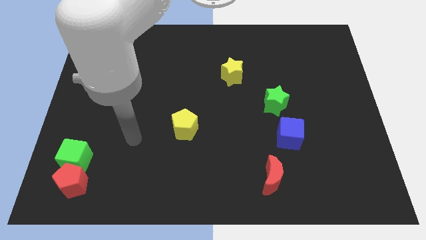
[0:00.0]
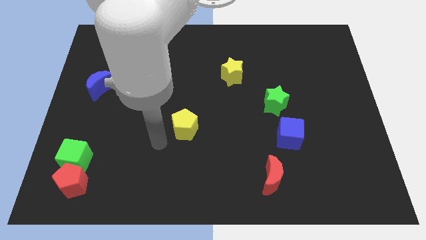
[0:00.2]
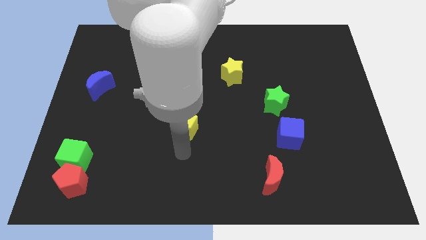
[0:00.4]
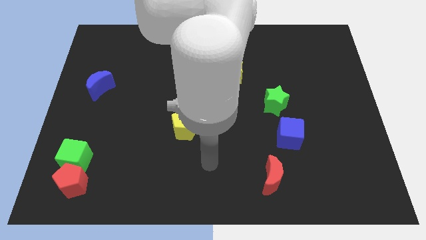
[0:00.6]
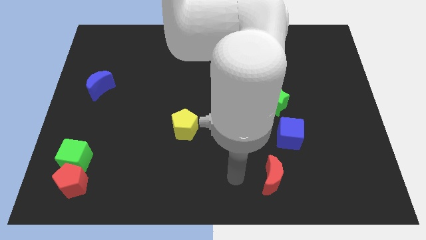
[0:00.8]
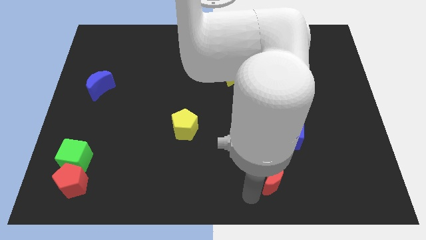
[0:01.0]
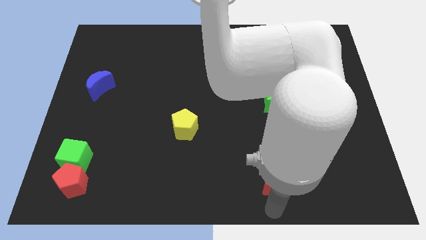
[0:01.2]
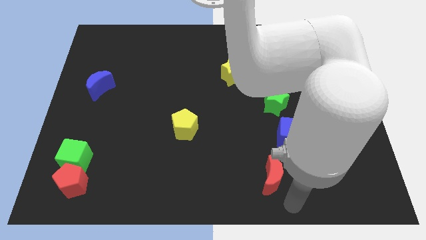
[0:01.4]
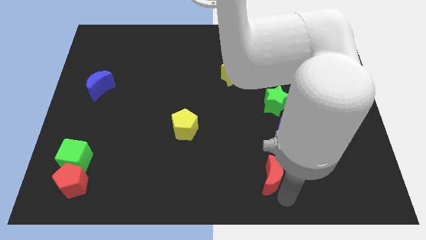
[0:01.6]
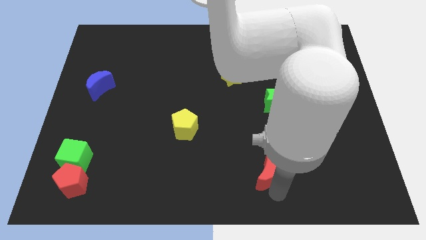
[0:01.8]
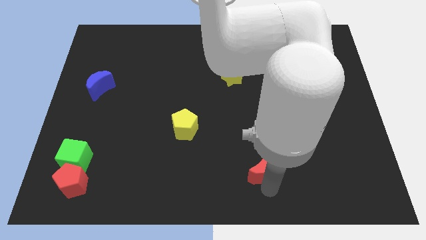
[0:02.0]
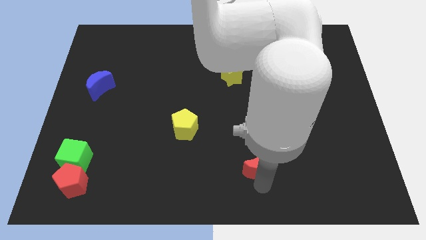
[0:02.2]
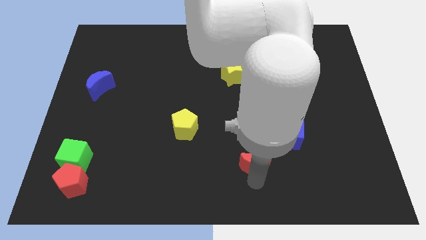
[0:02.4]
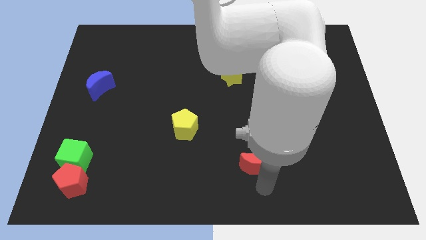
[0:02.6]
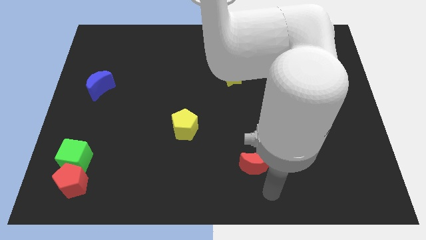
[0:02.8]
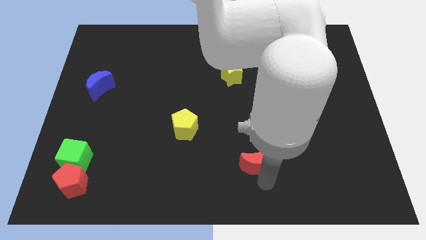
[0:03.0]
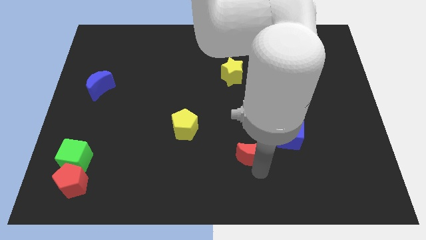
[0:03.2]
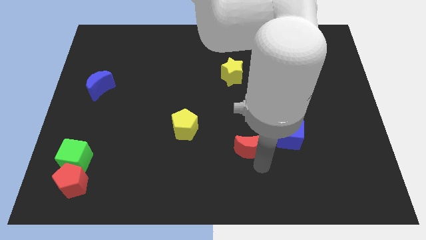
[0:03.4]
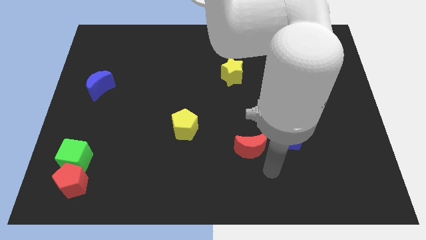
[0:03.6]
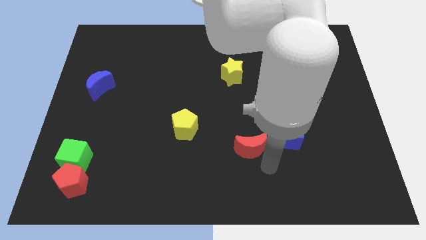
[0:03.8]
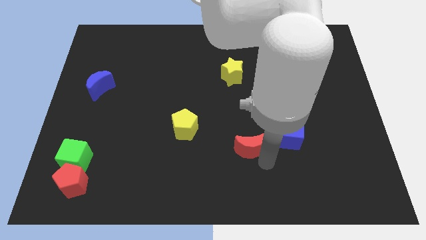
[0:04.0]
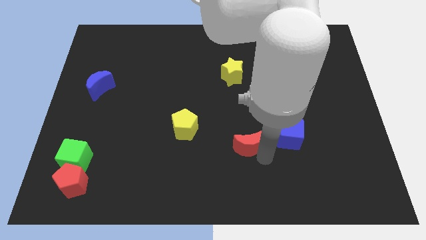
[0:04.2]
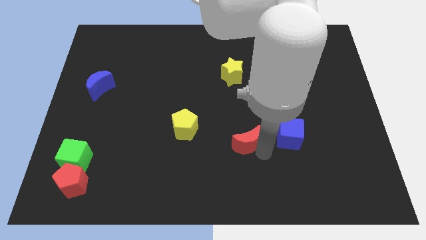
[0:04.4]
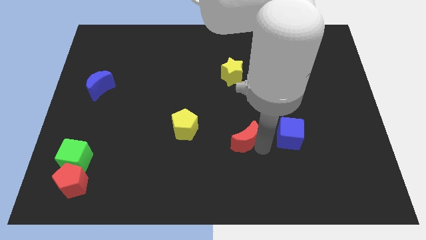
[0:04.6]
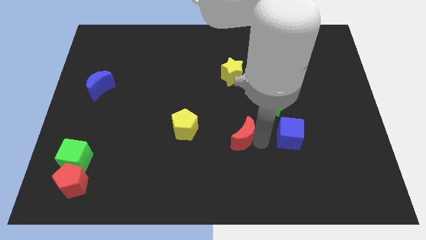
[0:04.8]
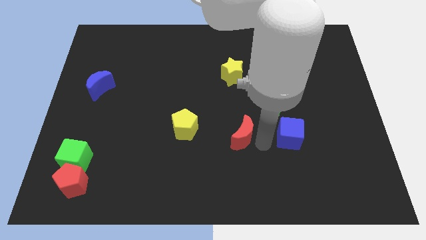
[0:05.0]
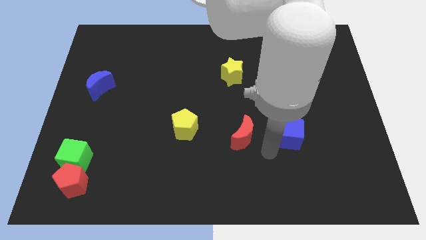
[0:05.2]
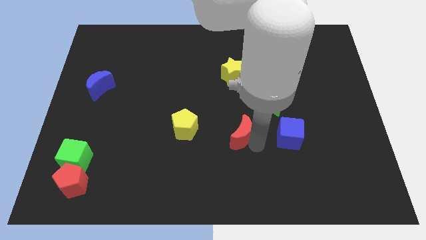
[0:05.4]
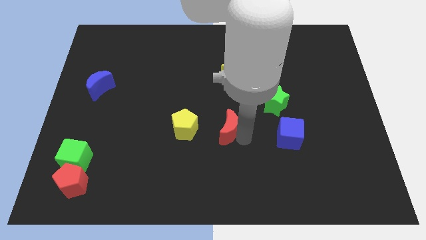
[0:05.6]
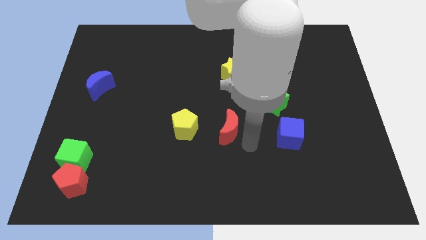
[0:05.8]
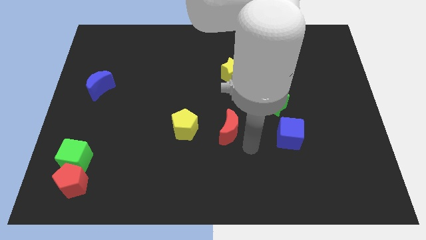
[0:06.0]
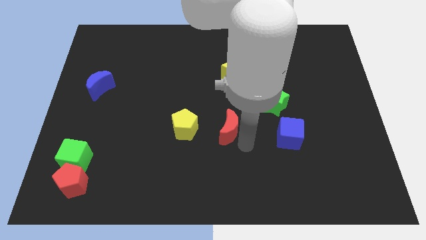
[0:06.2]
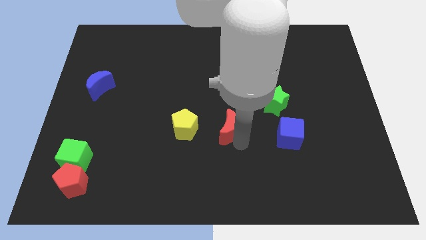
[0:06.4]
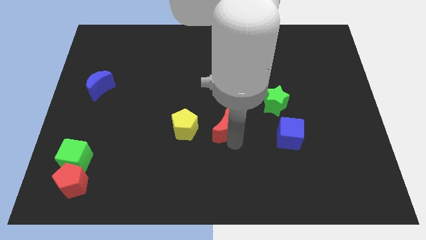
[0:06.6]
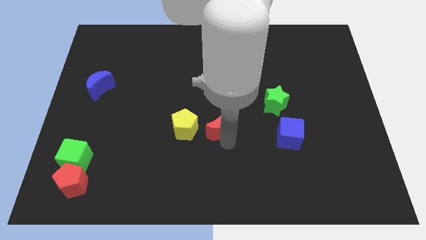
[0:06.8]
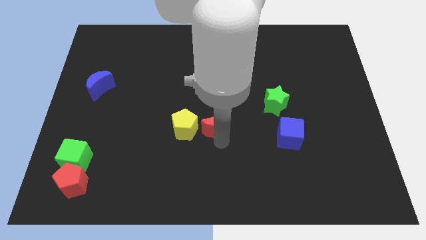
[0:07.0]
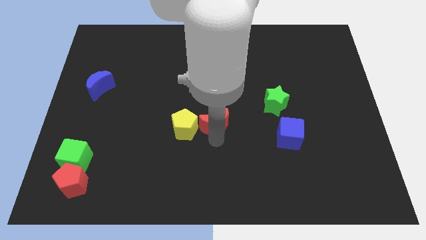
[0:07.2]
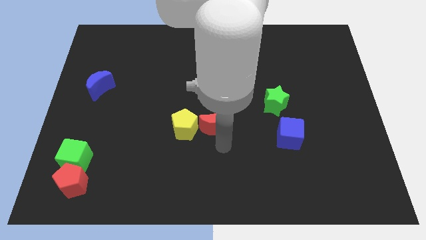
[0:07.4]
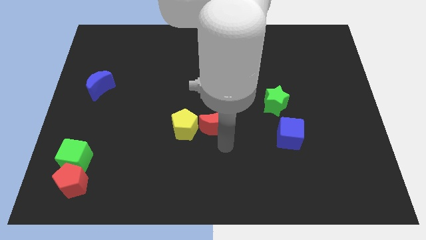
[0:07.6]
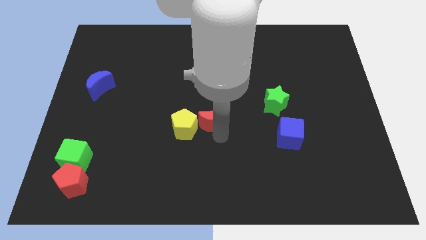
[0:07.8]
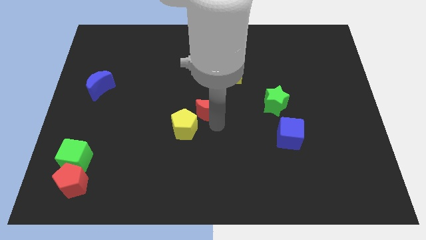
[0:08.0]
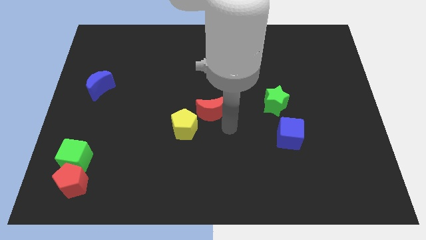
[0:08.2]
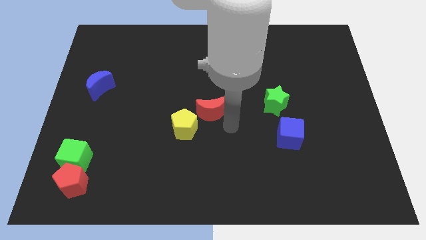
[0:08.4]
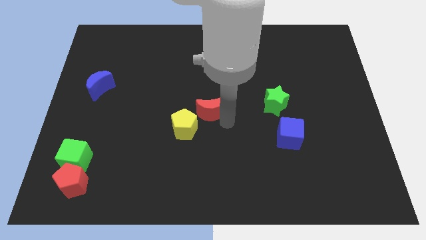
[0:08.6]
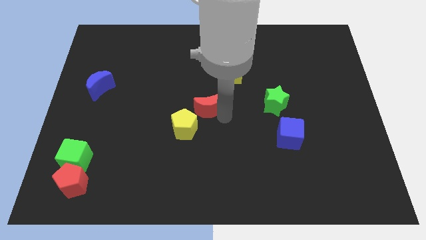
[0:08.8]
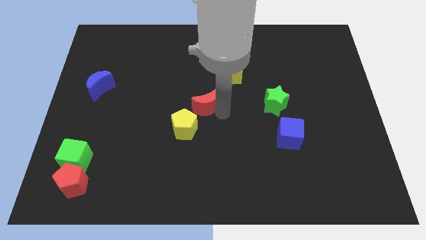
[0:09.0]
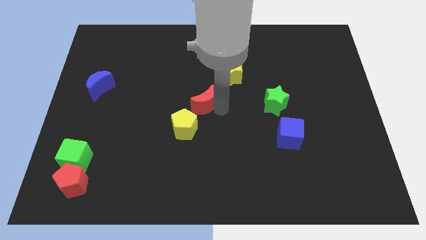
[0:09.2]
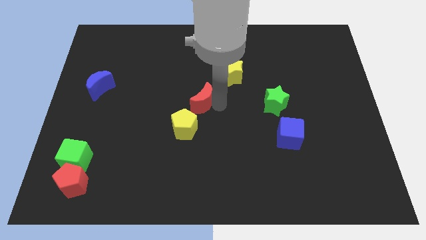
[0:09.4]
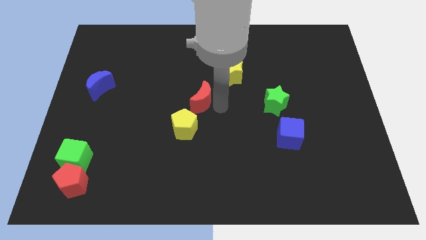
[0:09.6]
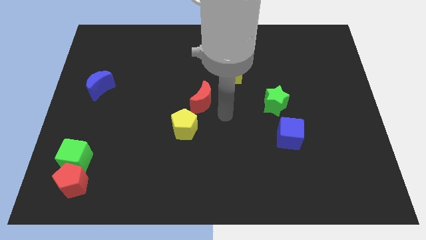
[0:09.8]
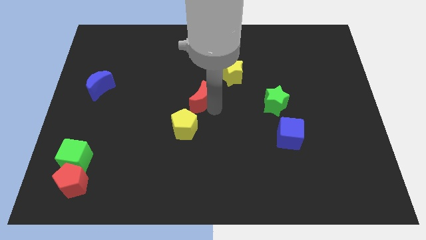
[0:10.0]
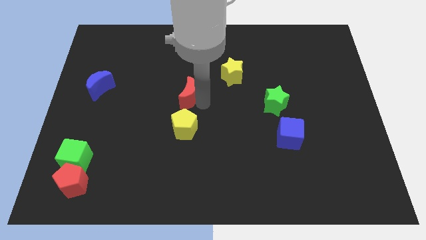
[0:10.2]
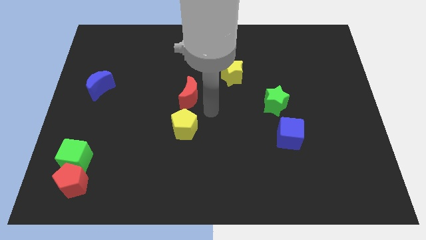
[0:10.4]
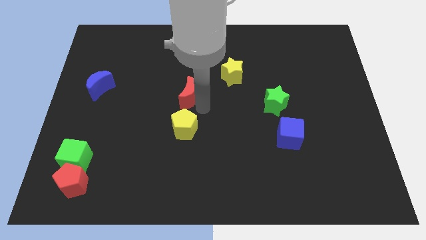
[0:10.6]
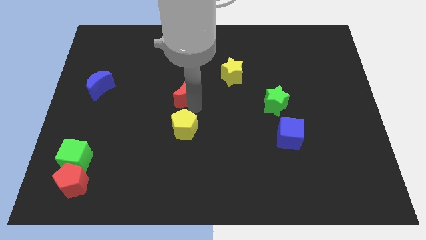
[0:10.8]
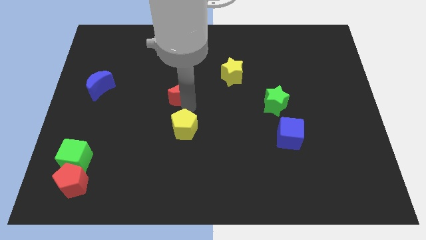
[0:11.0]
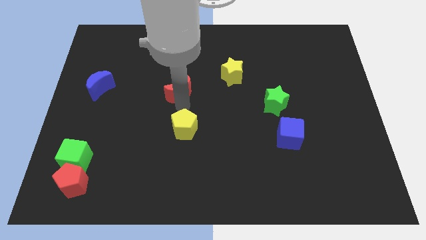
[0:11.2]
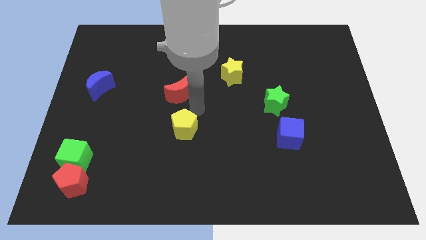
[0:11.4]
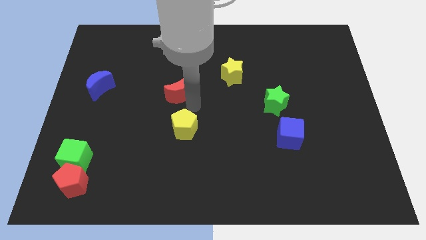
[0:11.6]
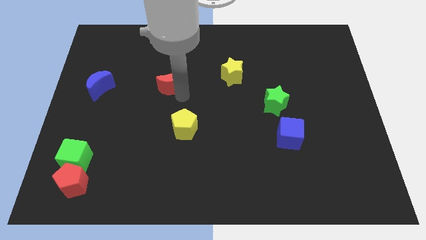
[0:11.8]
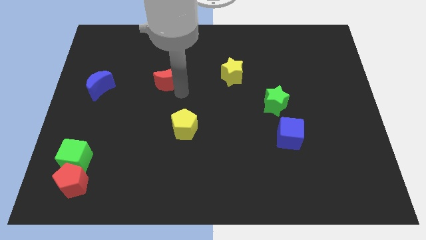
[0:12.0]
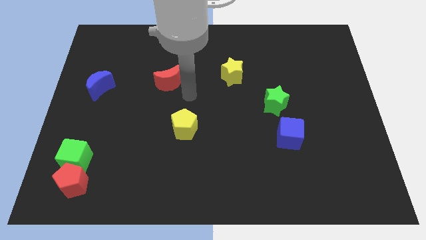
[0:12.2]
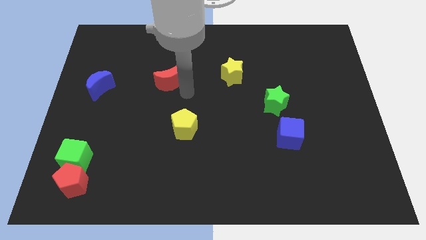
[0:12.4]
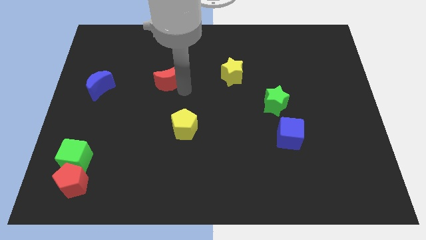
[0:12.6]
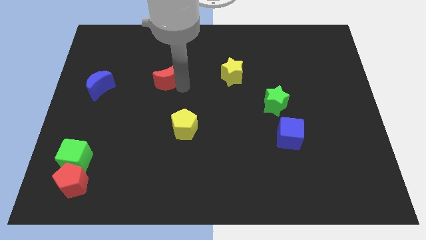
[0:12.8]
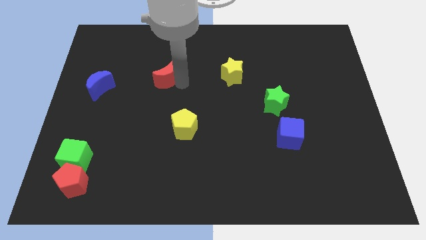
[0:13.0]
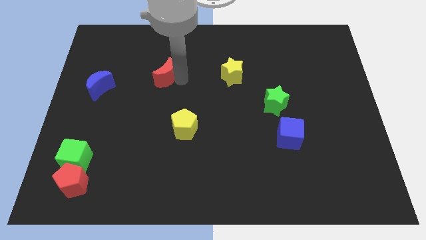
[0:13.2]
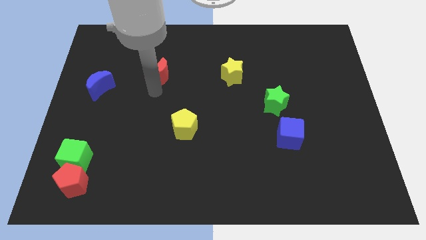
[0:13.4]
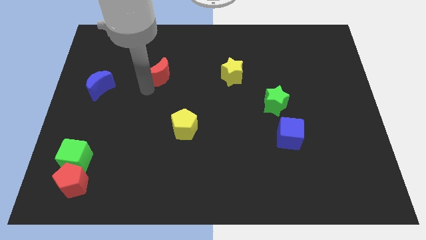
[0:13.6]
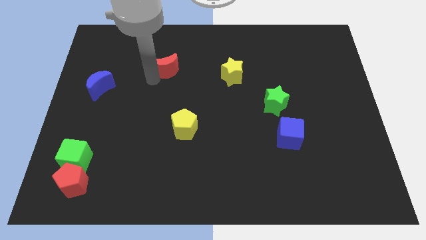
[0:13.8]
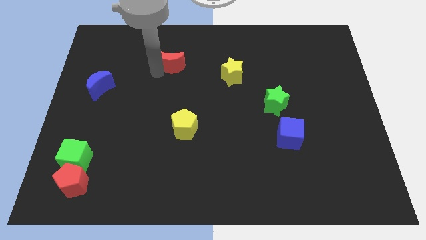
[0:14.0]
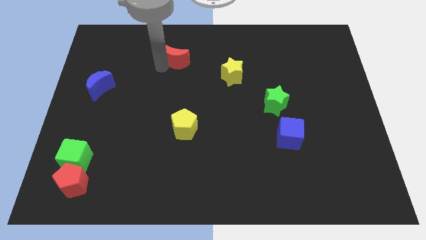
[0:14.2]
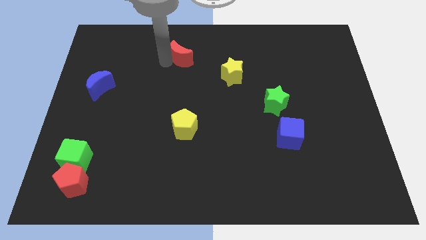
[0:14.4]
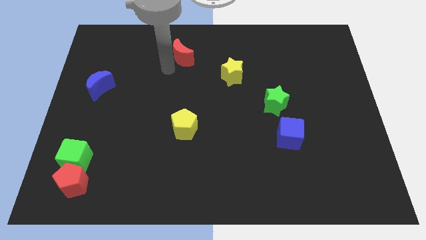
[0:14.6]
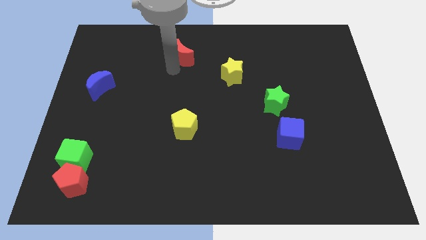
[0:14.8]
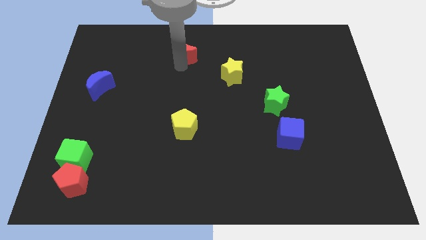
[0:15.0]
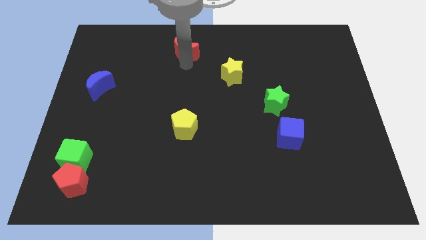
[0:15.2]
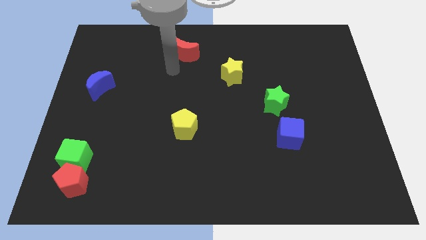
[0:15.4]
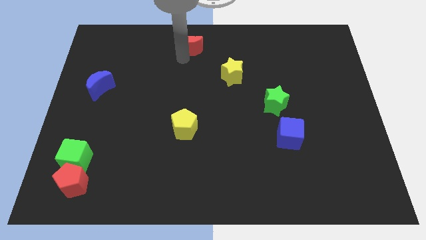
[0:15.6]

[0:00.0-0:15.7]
slide the red moon to the towards your base
